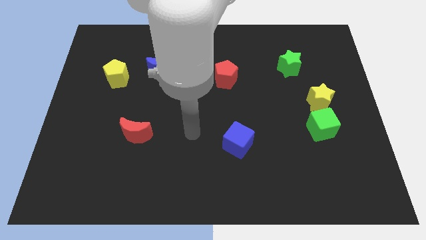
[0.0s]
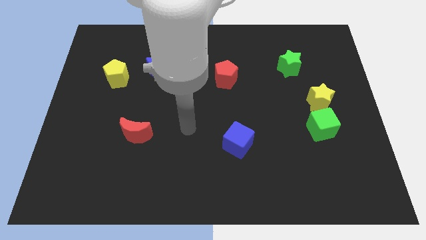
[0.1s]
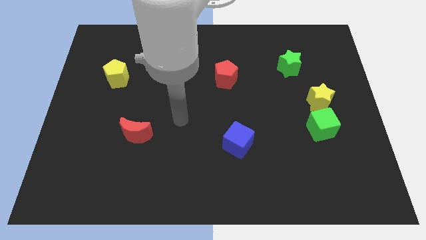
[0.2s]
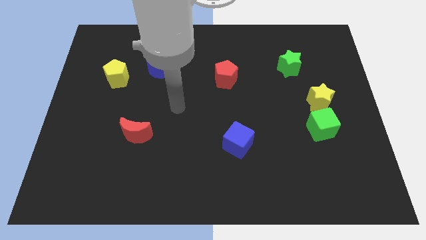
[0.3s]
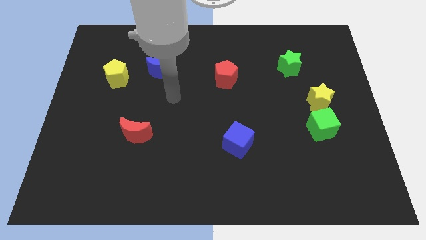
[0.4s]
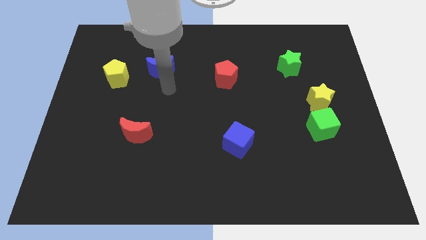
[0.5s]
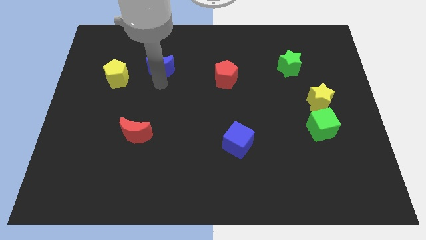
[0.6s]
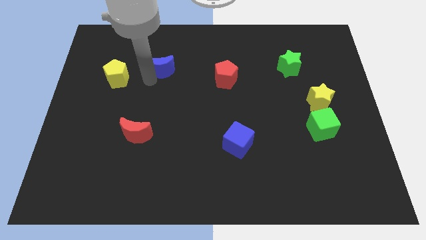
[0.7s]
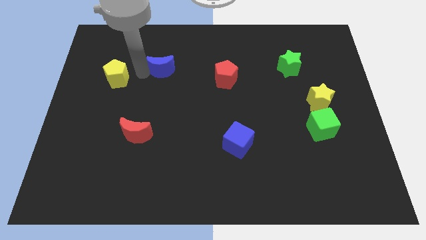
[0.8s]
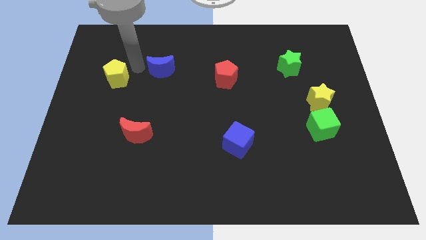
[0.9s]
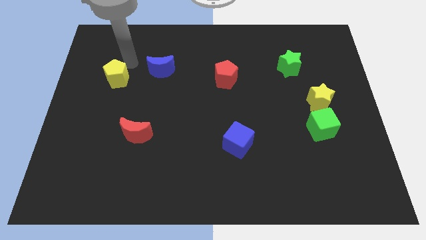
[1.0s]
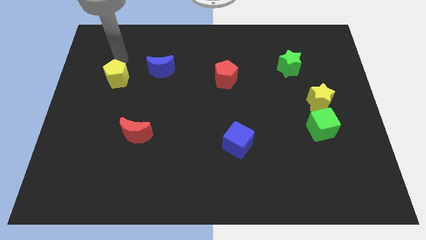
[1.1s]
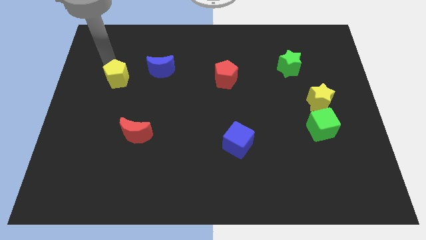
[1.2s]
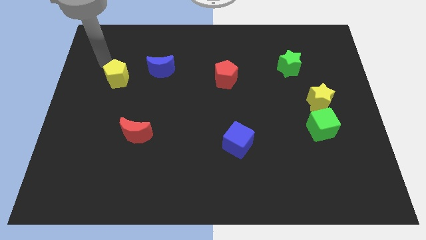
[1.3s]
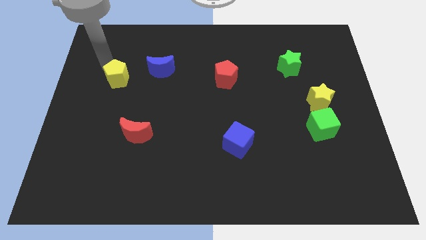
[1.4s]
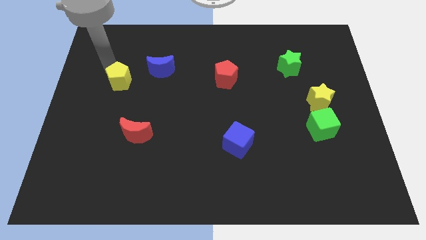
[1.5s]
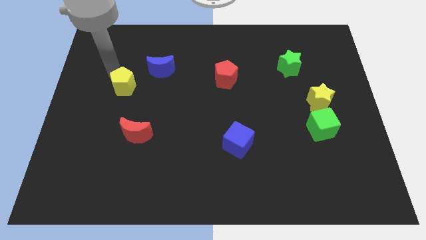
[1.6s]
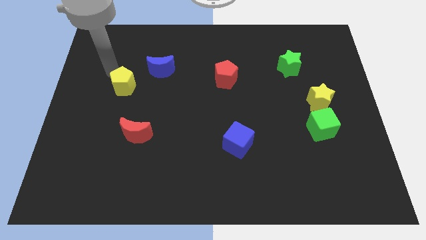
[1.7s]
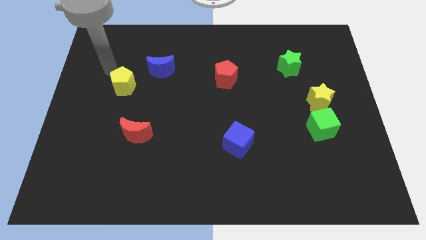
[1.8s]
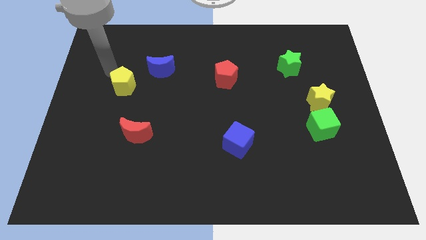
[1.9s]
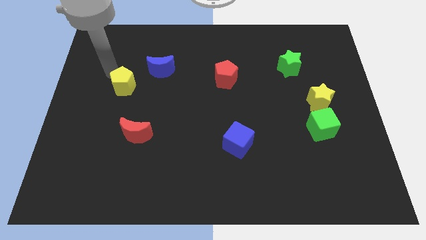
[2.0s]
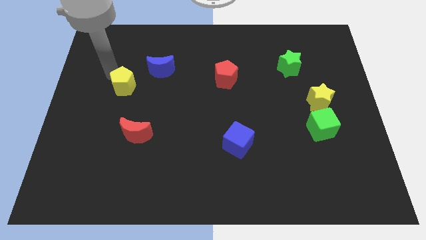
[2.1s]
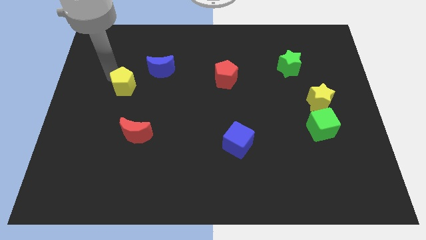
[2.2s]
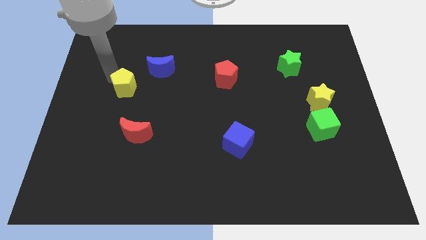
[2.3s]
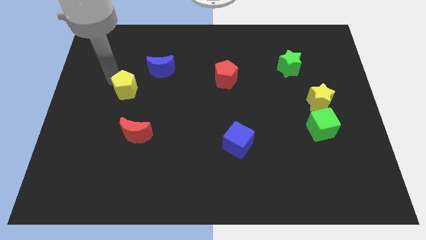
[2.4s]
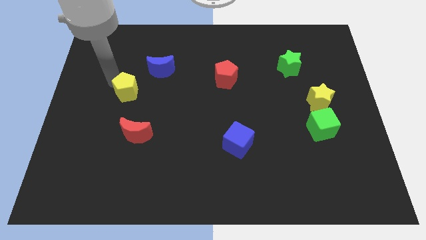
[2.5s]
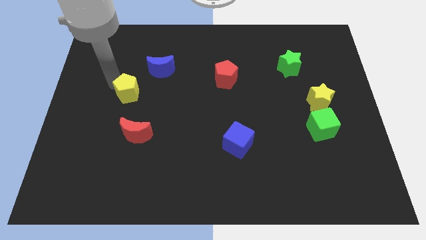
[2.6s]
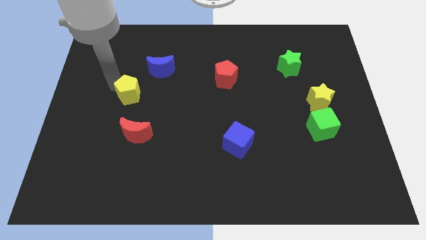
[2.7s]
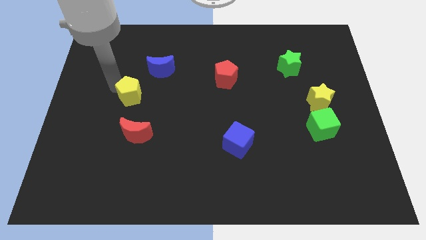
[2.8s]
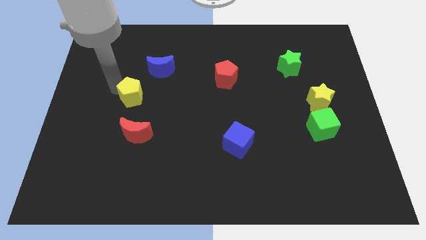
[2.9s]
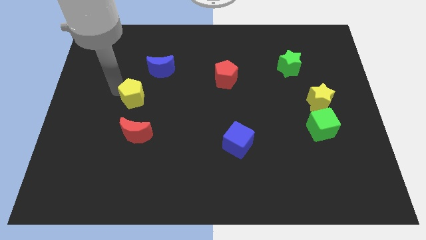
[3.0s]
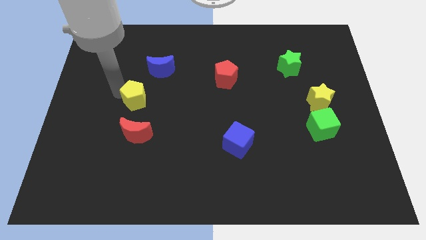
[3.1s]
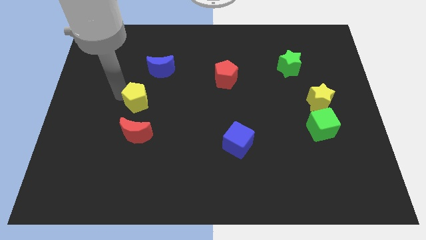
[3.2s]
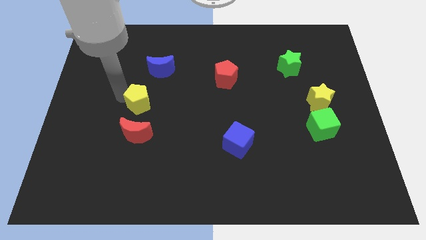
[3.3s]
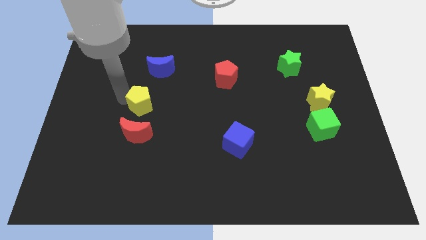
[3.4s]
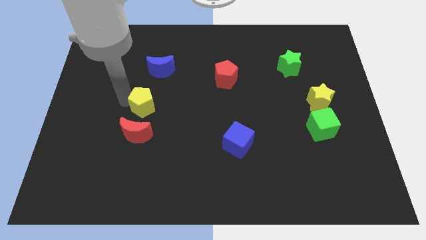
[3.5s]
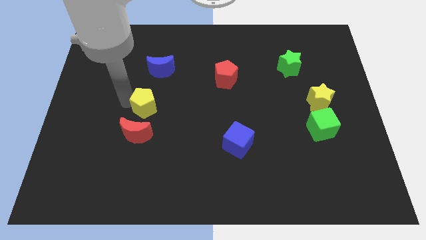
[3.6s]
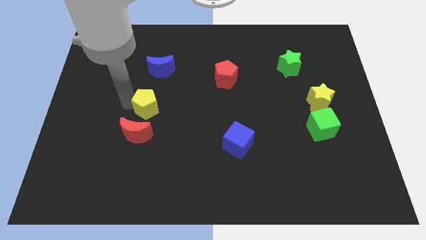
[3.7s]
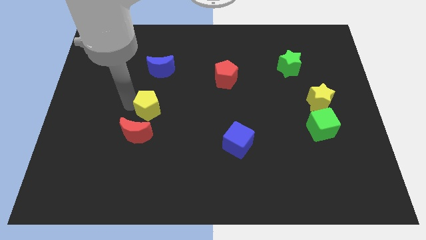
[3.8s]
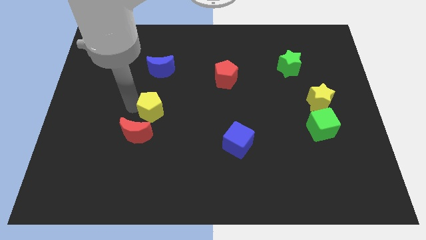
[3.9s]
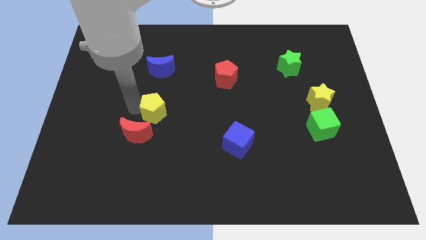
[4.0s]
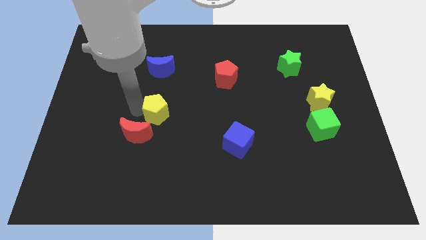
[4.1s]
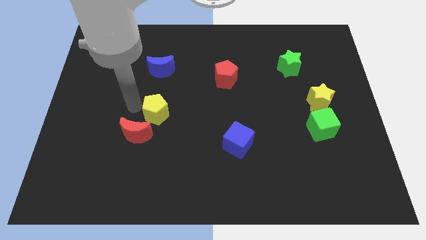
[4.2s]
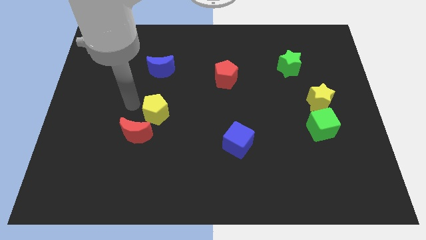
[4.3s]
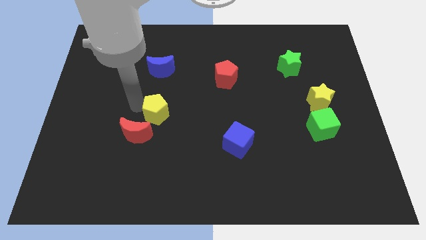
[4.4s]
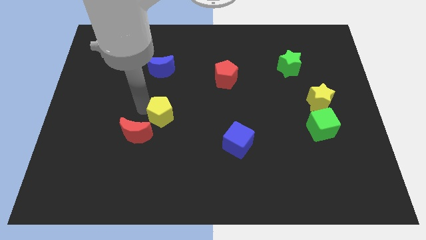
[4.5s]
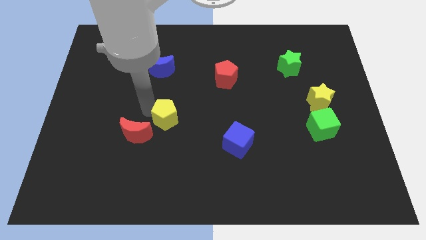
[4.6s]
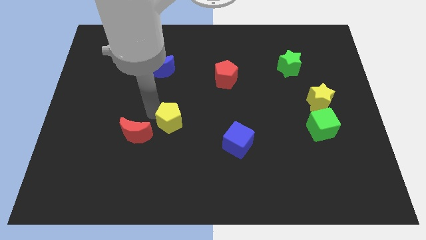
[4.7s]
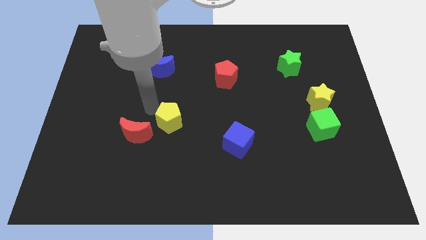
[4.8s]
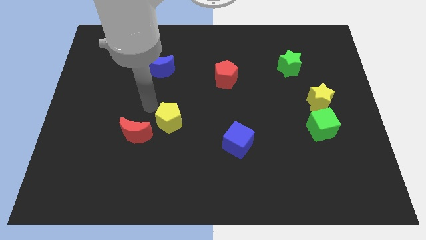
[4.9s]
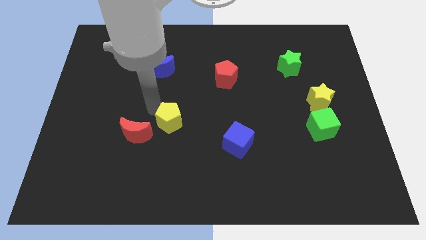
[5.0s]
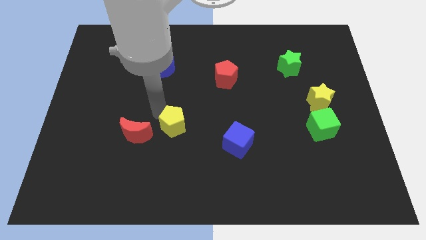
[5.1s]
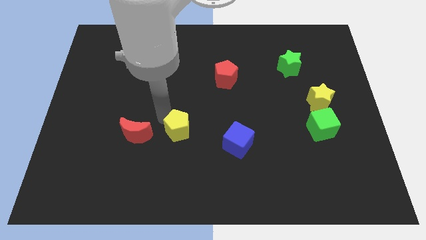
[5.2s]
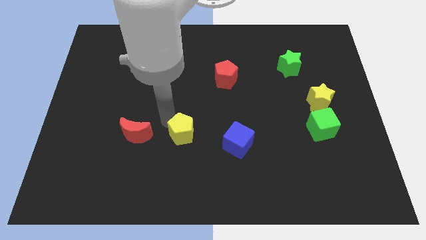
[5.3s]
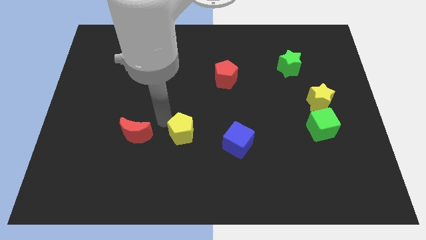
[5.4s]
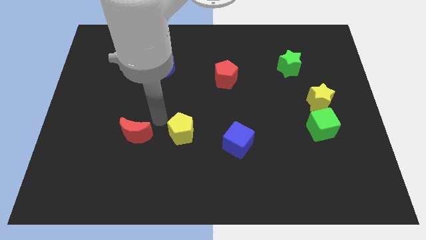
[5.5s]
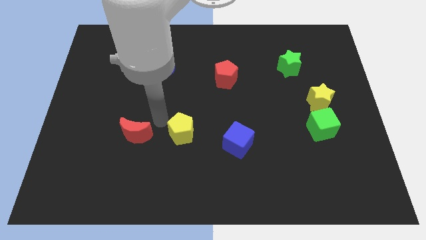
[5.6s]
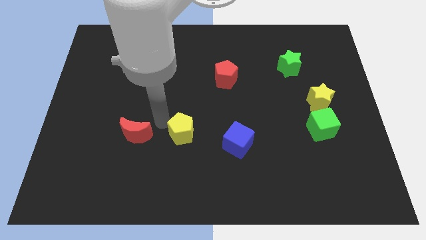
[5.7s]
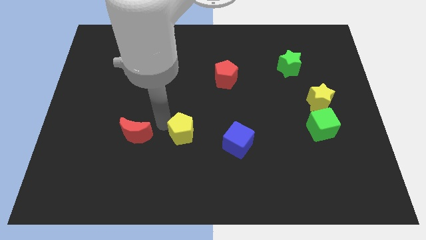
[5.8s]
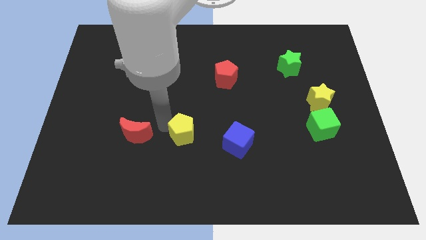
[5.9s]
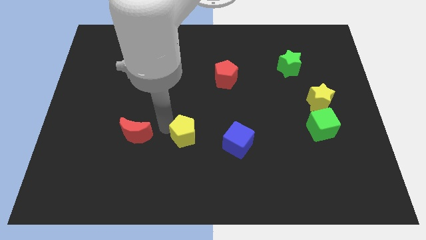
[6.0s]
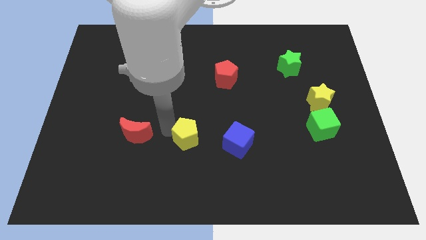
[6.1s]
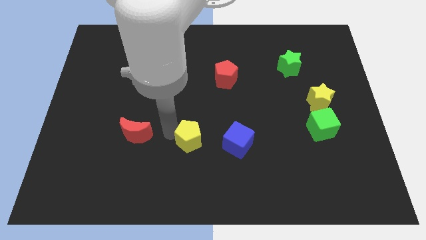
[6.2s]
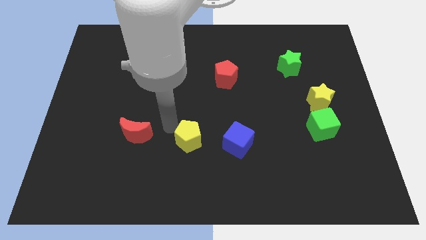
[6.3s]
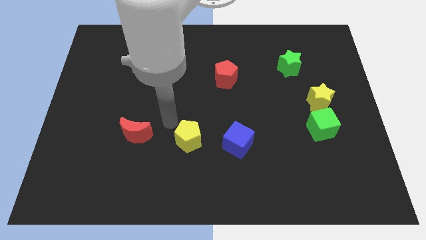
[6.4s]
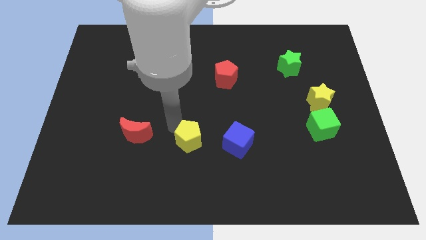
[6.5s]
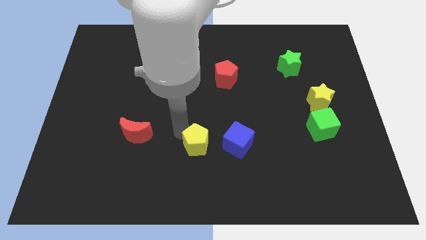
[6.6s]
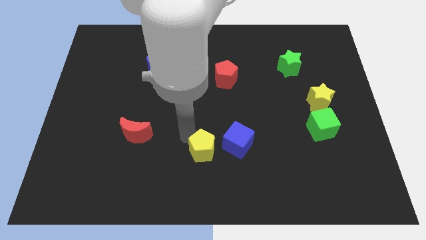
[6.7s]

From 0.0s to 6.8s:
push the yellow pentagon diagonally down and to the left of the blue cube
